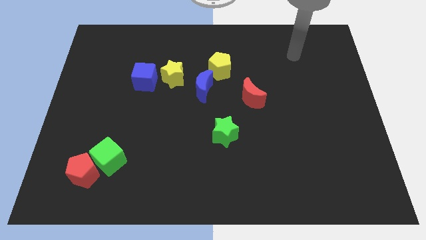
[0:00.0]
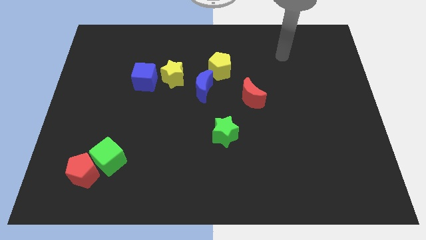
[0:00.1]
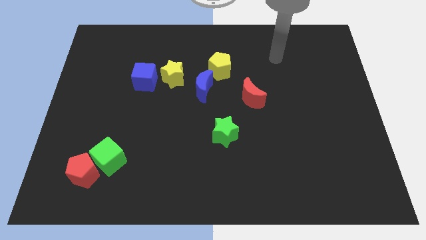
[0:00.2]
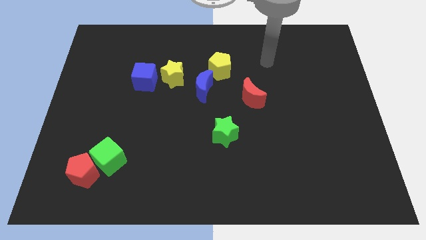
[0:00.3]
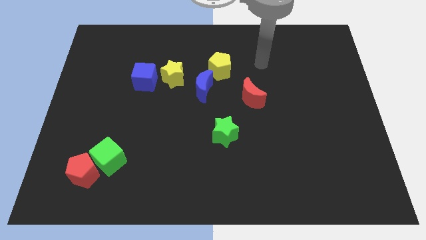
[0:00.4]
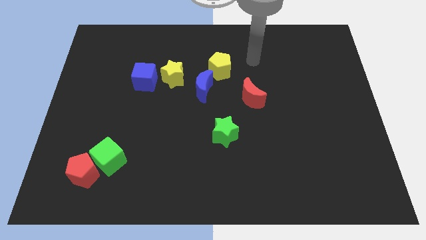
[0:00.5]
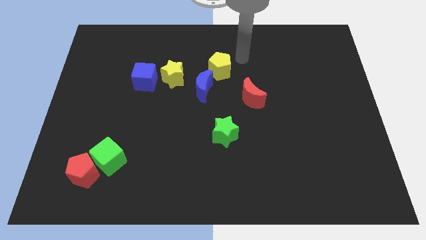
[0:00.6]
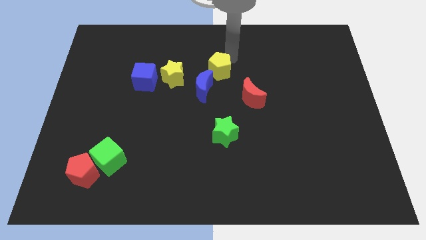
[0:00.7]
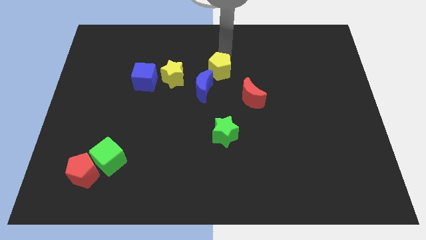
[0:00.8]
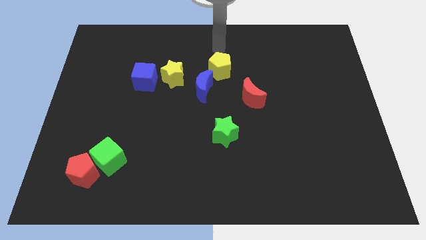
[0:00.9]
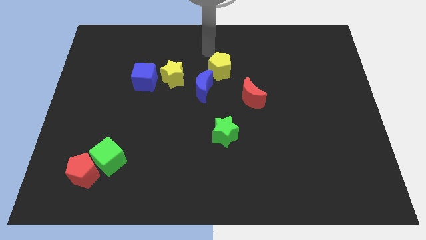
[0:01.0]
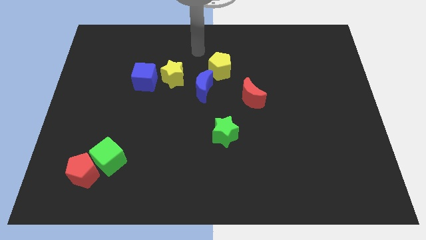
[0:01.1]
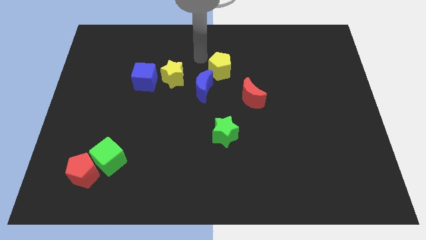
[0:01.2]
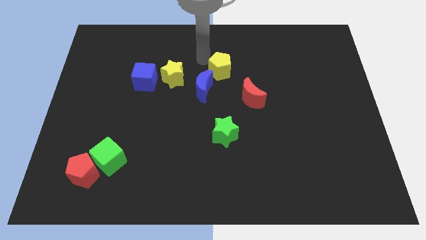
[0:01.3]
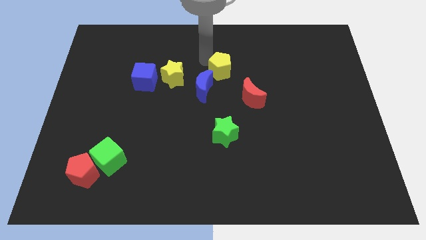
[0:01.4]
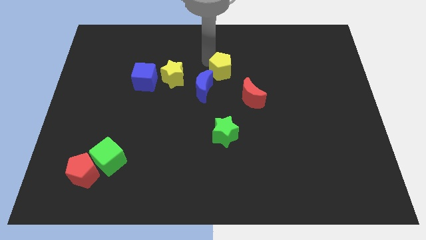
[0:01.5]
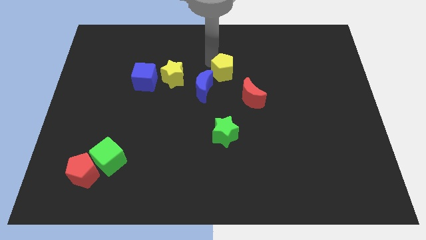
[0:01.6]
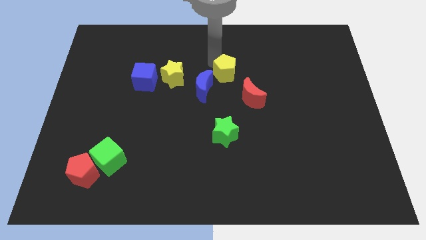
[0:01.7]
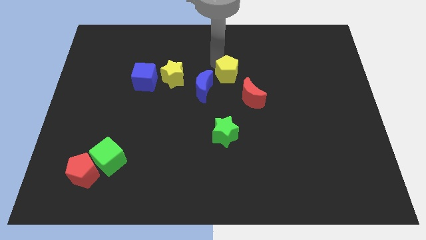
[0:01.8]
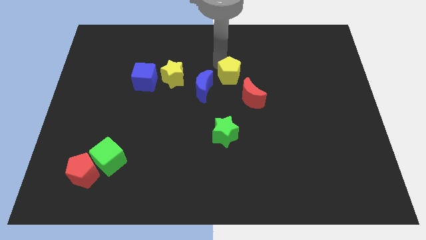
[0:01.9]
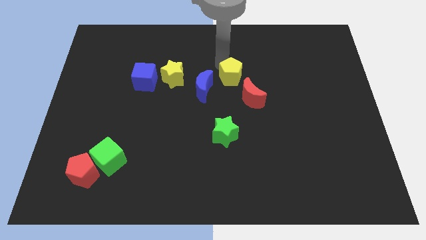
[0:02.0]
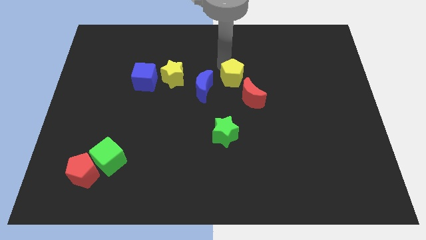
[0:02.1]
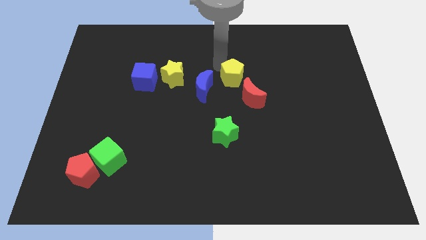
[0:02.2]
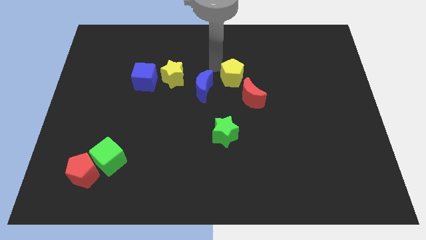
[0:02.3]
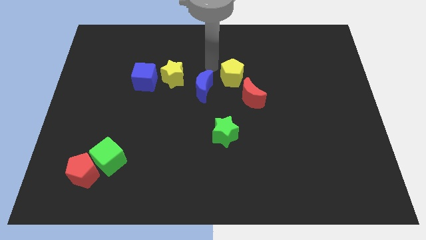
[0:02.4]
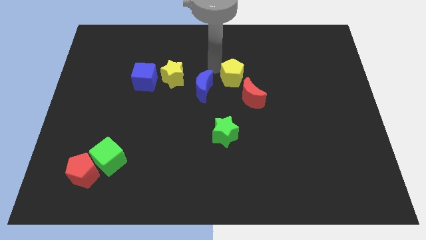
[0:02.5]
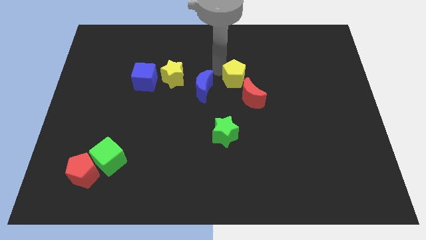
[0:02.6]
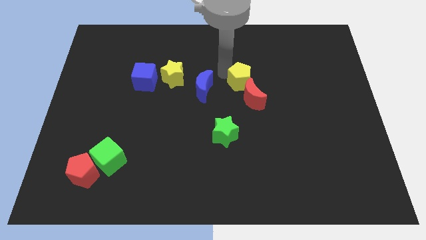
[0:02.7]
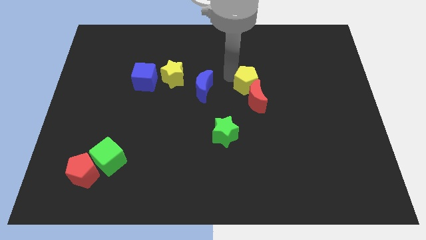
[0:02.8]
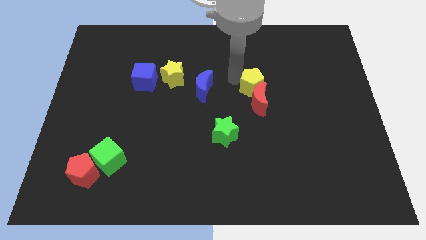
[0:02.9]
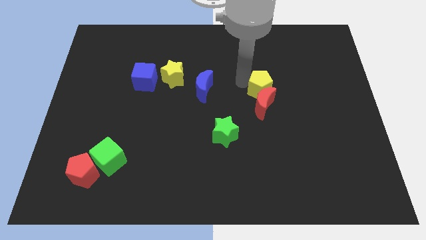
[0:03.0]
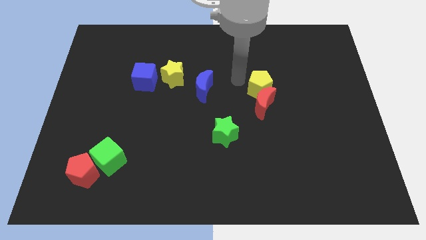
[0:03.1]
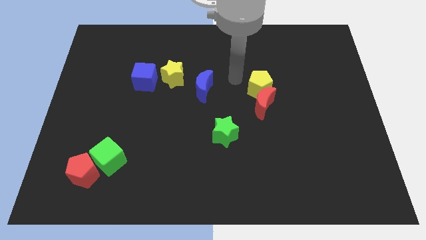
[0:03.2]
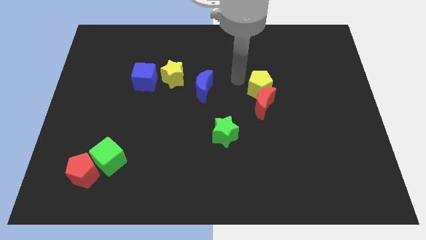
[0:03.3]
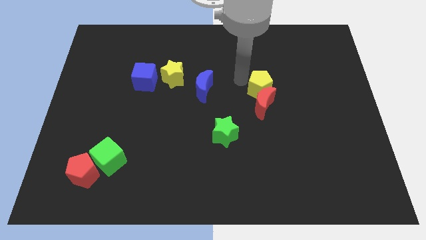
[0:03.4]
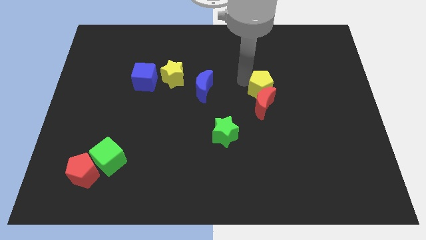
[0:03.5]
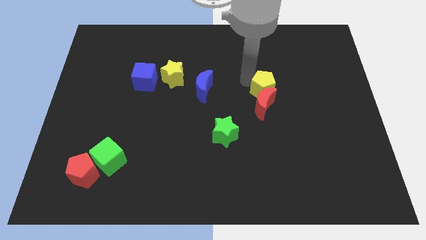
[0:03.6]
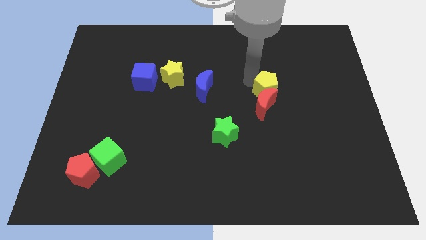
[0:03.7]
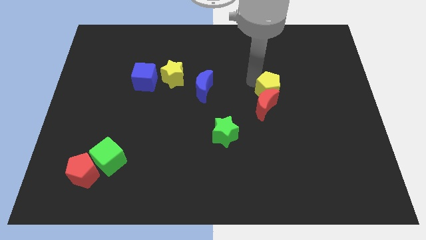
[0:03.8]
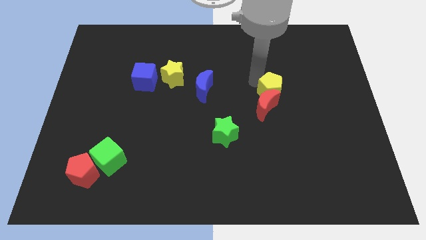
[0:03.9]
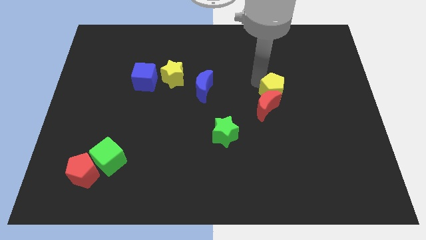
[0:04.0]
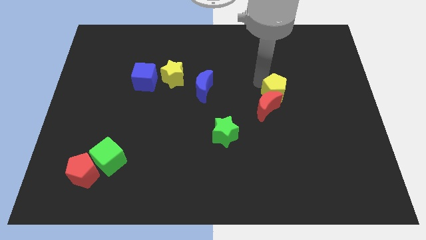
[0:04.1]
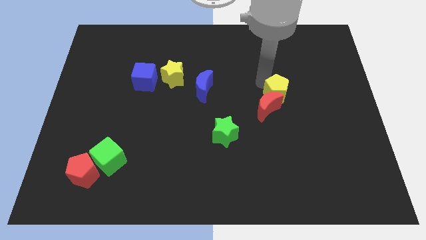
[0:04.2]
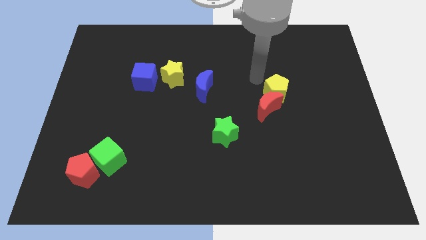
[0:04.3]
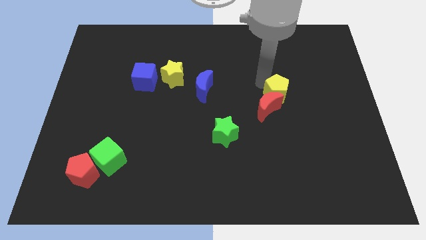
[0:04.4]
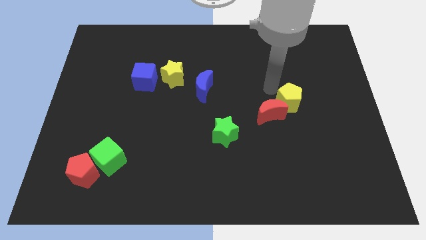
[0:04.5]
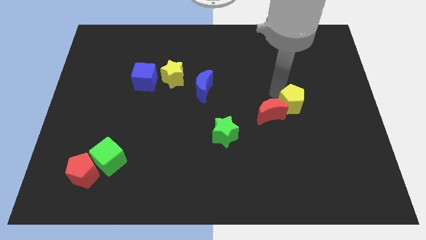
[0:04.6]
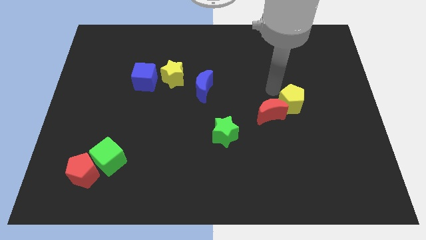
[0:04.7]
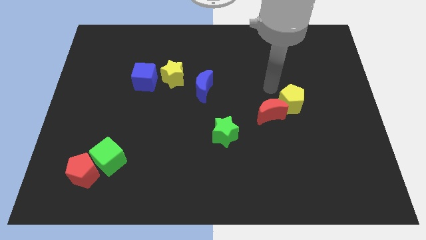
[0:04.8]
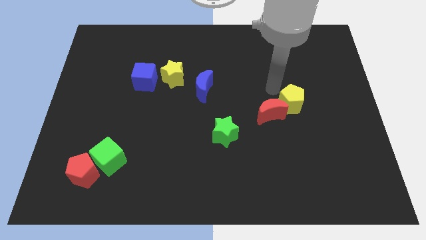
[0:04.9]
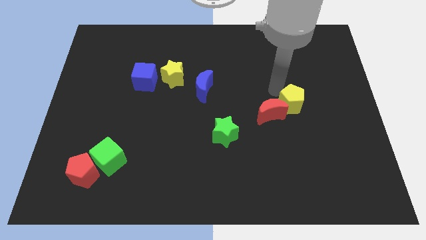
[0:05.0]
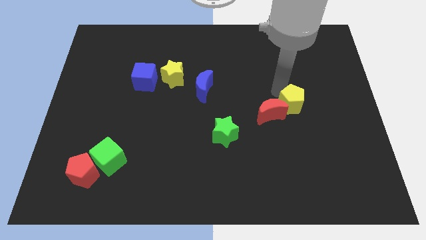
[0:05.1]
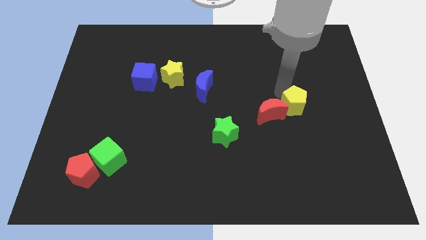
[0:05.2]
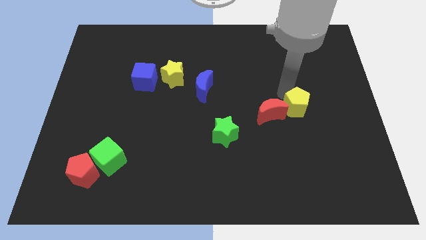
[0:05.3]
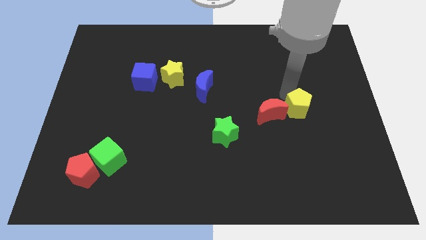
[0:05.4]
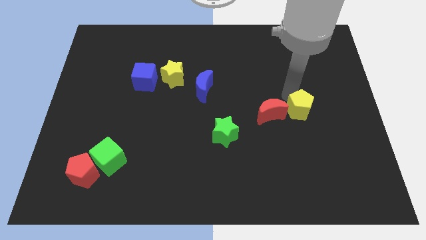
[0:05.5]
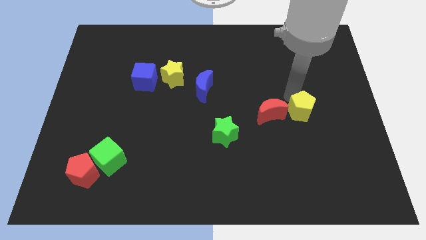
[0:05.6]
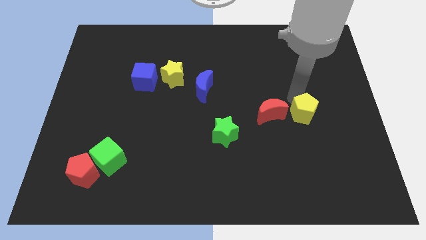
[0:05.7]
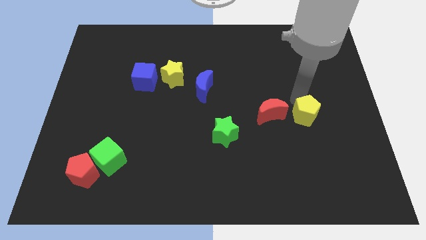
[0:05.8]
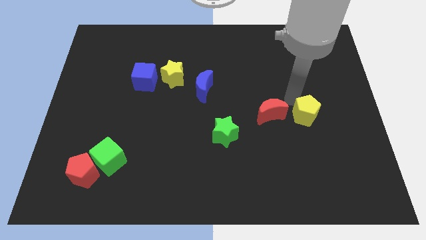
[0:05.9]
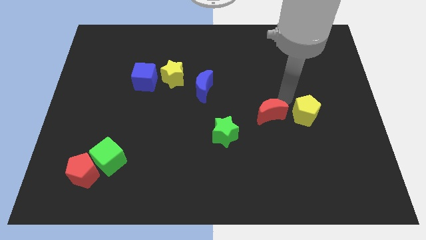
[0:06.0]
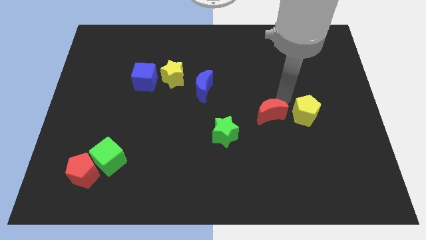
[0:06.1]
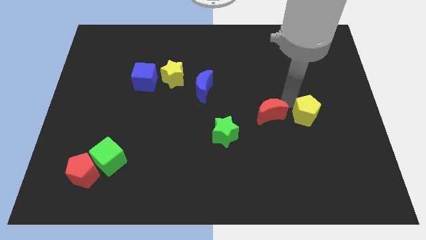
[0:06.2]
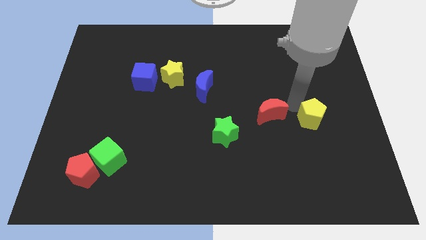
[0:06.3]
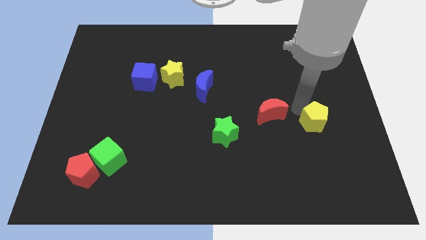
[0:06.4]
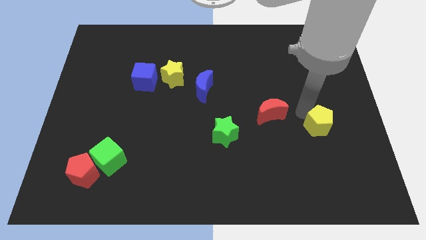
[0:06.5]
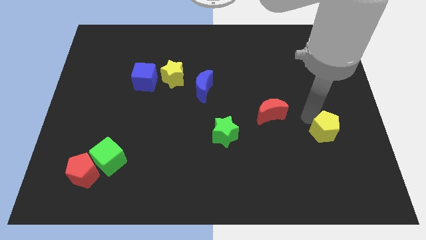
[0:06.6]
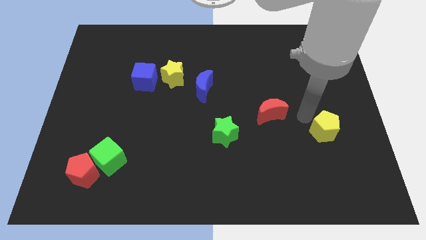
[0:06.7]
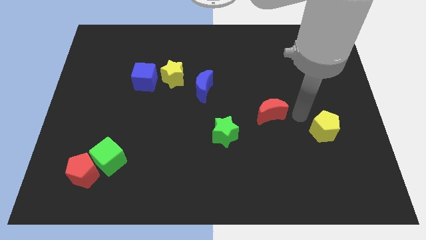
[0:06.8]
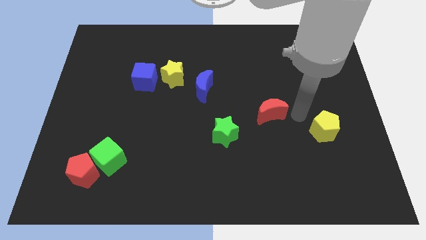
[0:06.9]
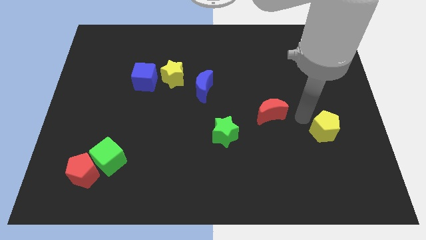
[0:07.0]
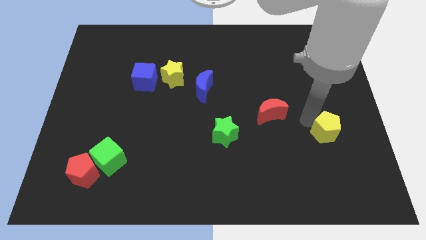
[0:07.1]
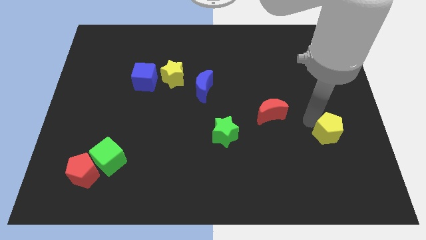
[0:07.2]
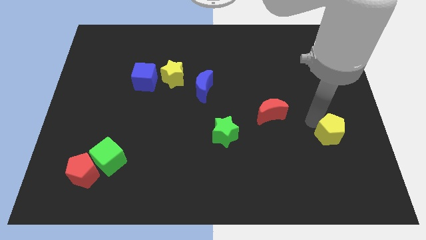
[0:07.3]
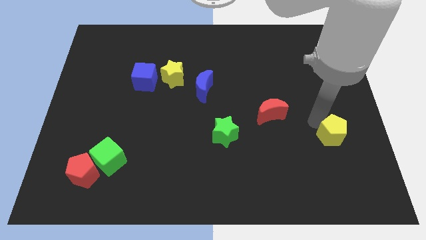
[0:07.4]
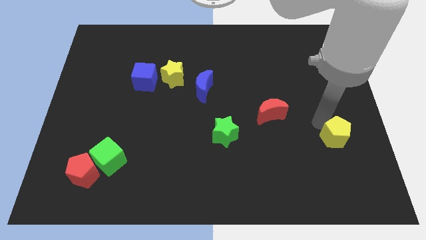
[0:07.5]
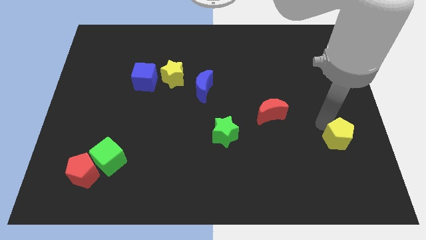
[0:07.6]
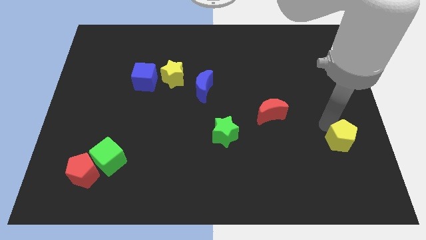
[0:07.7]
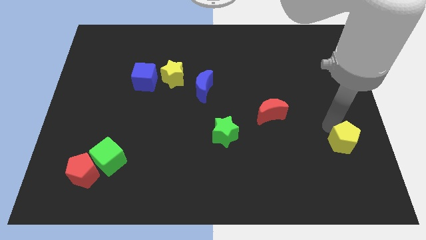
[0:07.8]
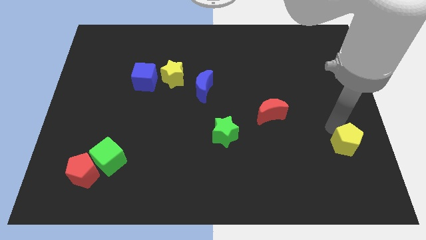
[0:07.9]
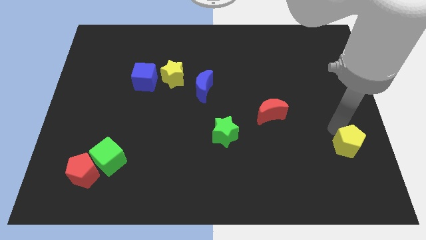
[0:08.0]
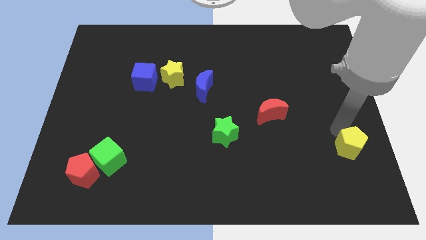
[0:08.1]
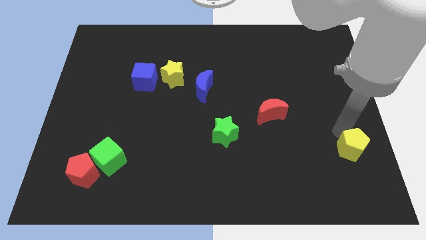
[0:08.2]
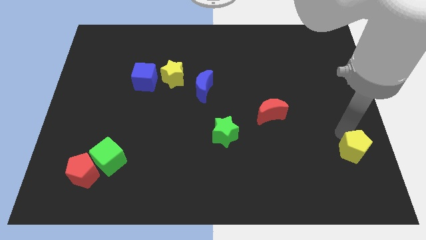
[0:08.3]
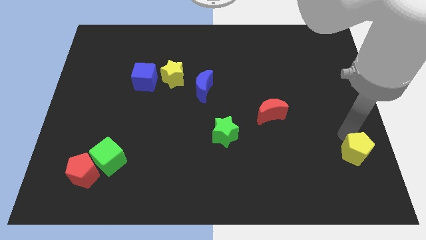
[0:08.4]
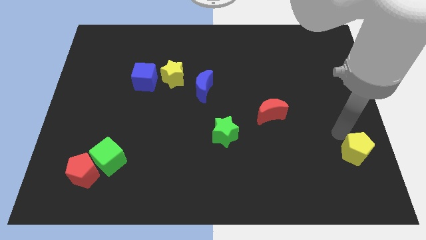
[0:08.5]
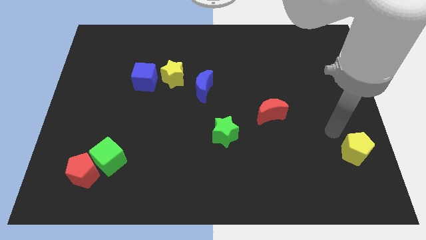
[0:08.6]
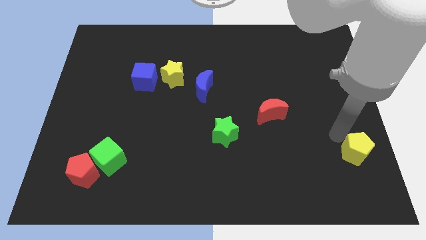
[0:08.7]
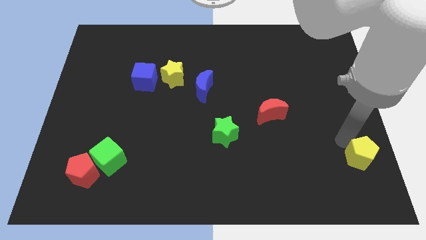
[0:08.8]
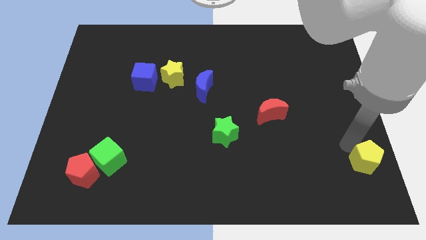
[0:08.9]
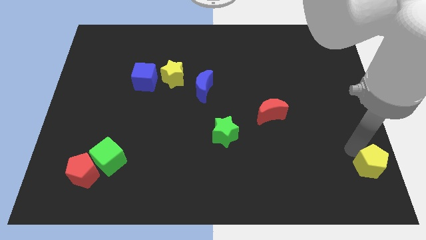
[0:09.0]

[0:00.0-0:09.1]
put the yellow pentagon to the bottom right of the board
